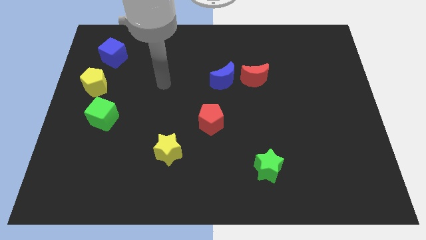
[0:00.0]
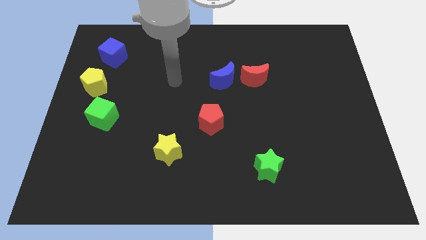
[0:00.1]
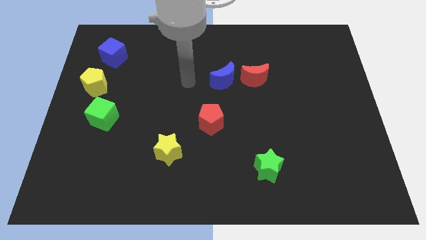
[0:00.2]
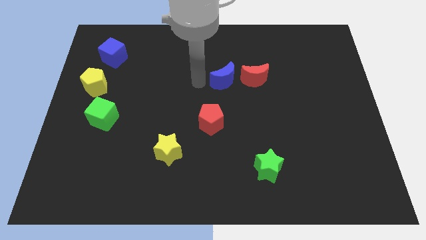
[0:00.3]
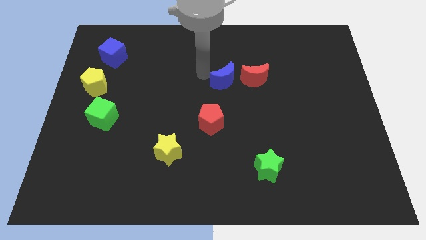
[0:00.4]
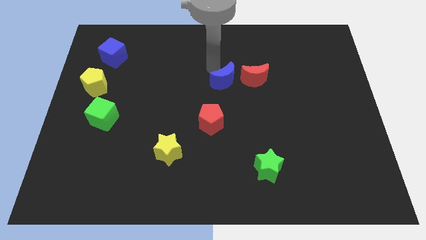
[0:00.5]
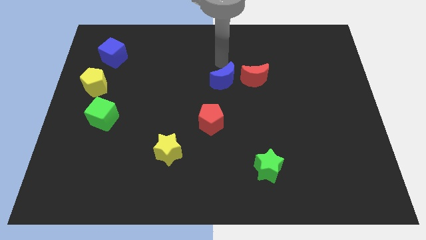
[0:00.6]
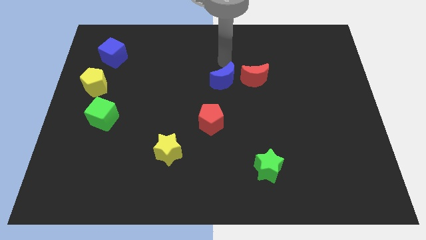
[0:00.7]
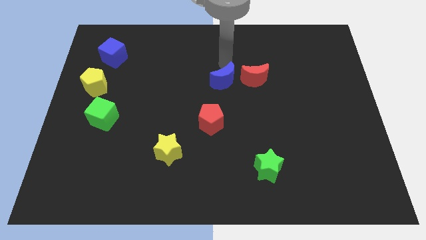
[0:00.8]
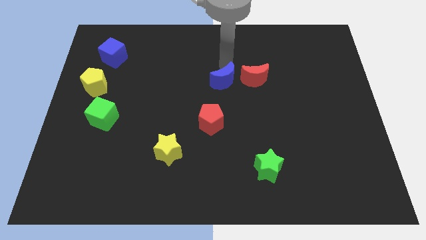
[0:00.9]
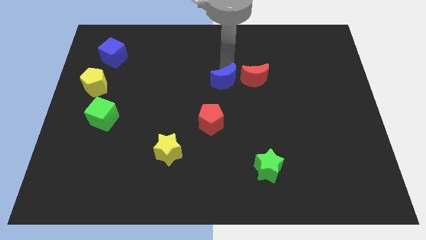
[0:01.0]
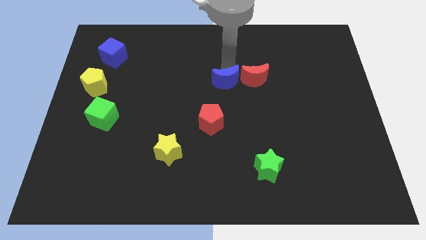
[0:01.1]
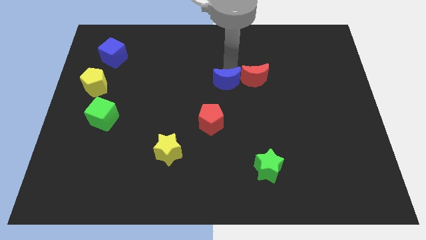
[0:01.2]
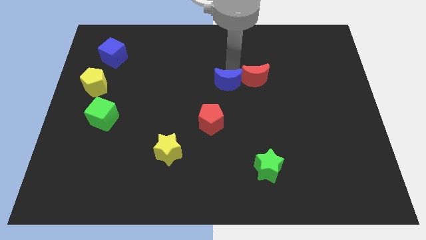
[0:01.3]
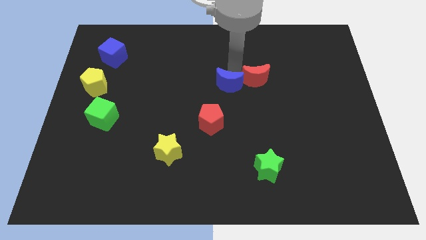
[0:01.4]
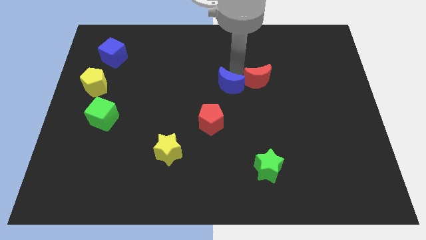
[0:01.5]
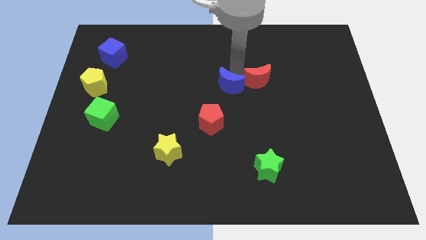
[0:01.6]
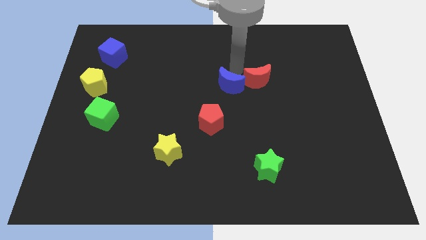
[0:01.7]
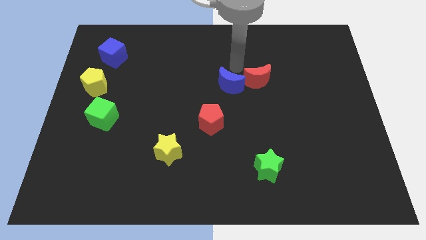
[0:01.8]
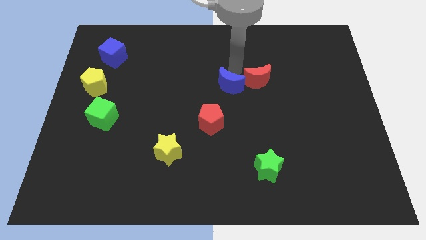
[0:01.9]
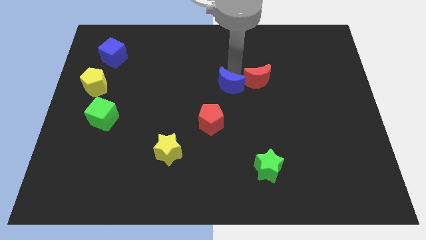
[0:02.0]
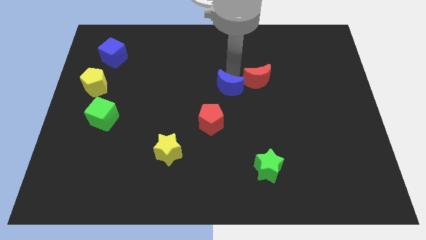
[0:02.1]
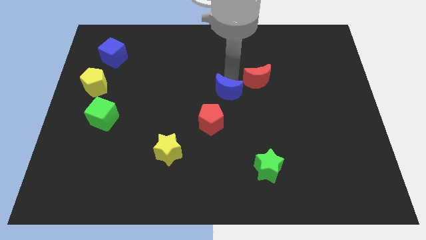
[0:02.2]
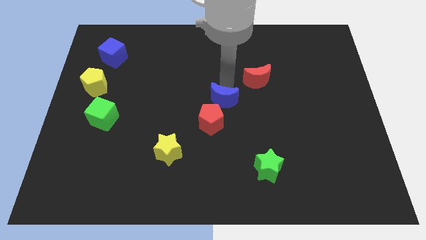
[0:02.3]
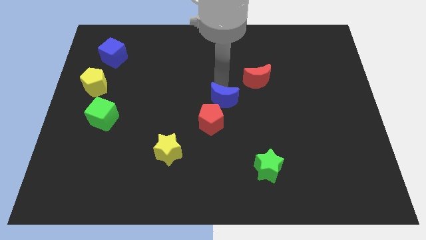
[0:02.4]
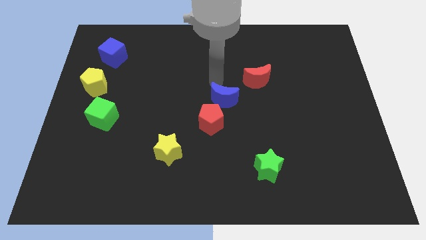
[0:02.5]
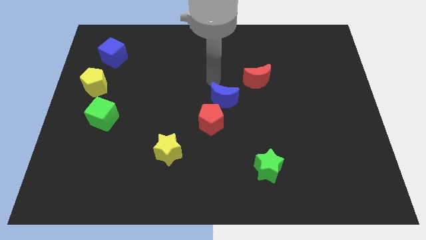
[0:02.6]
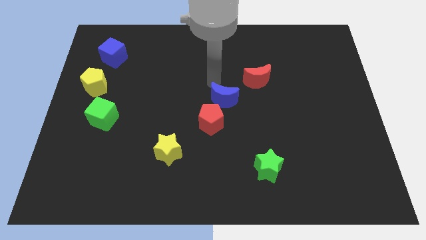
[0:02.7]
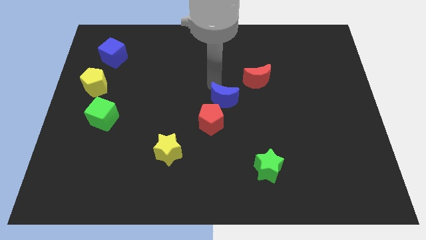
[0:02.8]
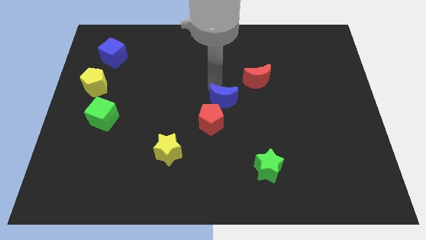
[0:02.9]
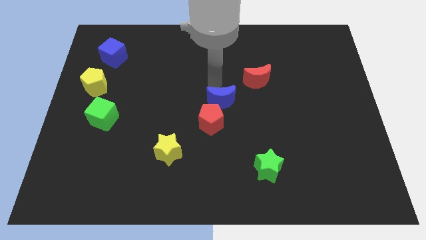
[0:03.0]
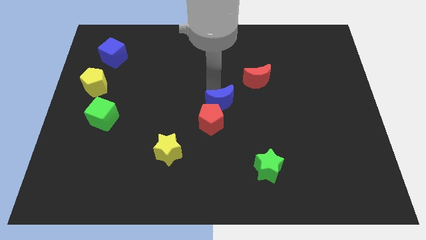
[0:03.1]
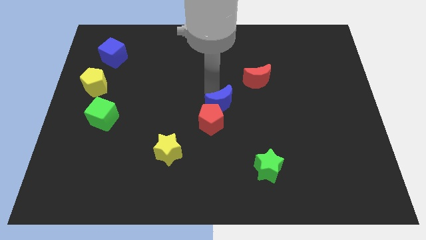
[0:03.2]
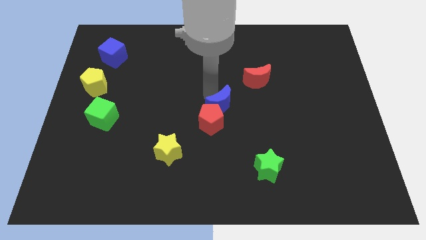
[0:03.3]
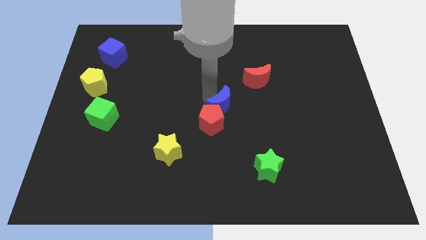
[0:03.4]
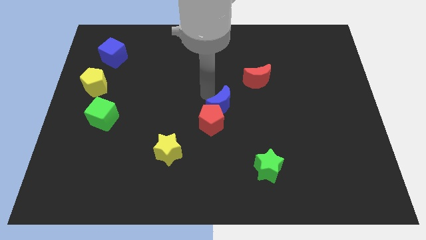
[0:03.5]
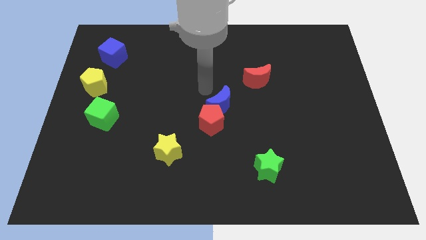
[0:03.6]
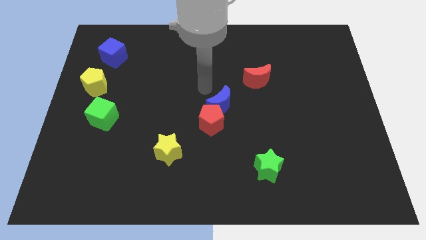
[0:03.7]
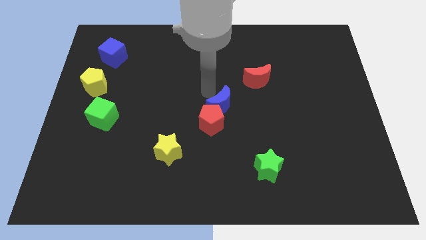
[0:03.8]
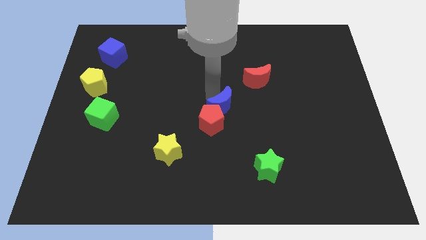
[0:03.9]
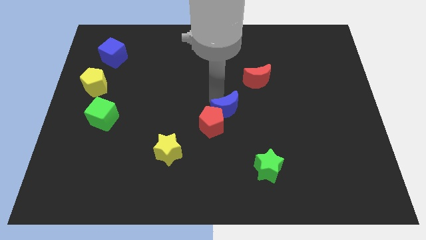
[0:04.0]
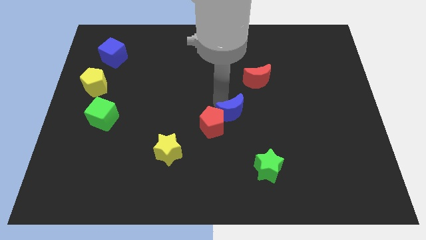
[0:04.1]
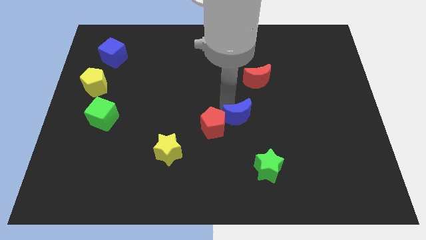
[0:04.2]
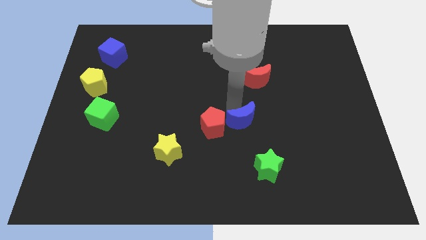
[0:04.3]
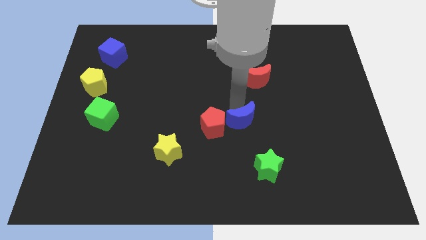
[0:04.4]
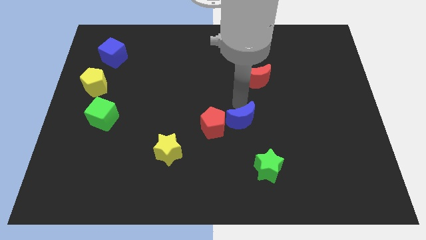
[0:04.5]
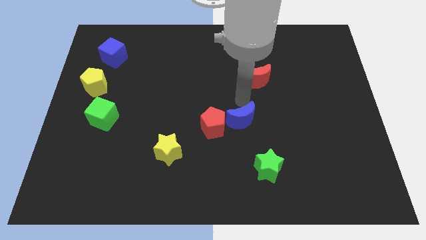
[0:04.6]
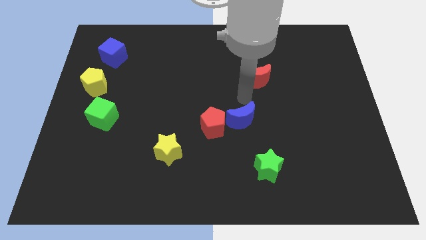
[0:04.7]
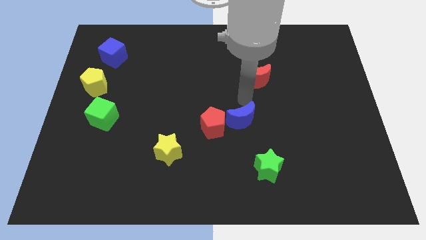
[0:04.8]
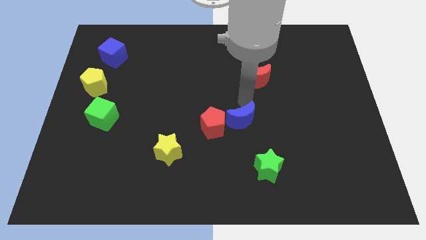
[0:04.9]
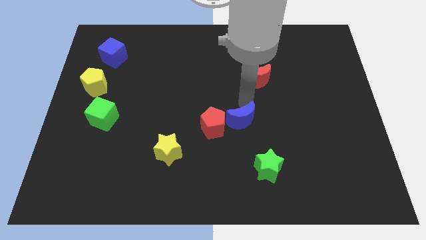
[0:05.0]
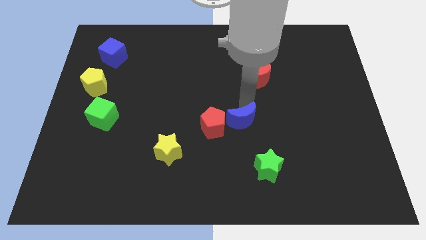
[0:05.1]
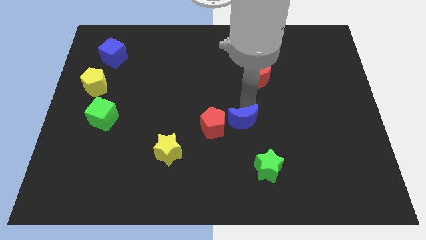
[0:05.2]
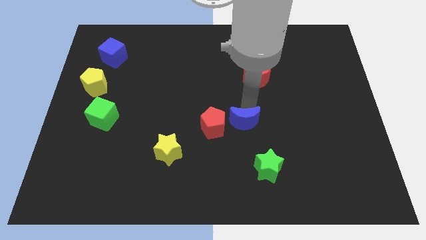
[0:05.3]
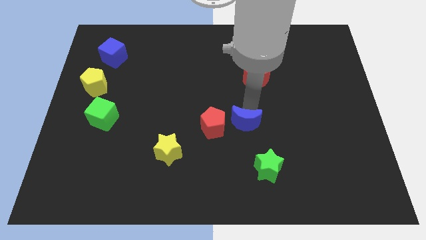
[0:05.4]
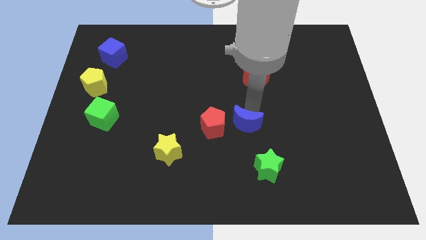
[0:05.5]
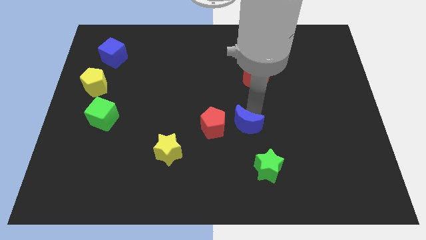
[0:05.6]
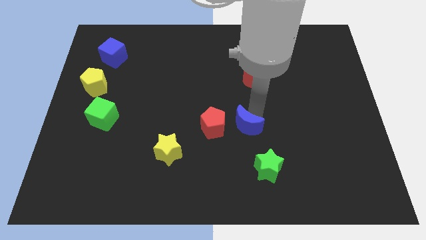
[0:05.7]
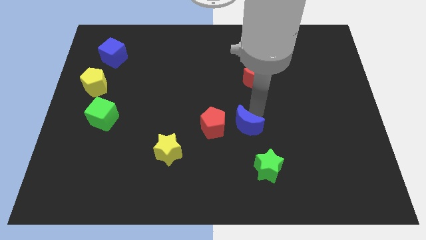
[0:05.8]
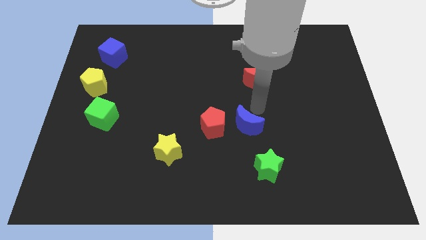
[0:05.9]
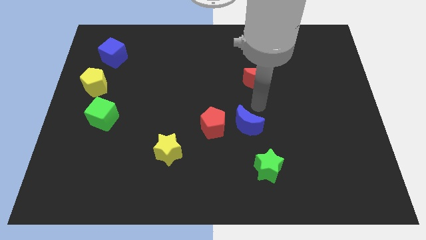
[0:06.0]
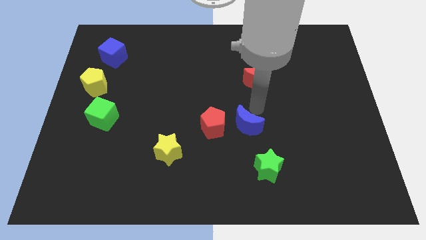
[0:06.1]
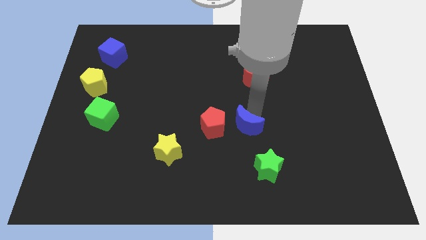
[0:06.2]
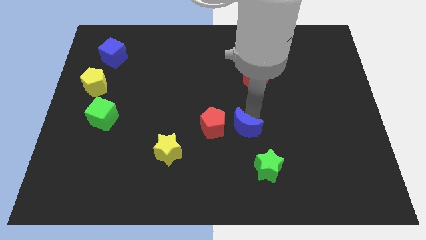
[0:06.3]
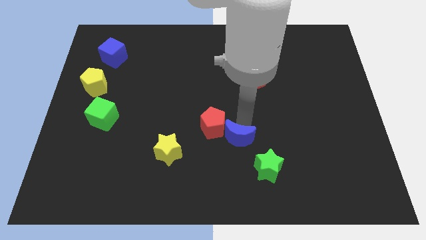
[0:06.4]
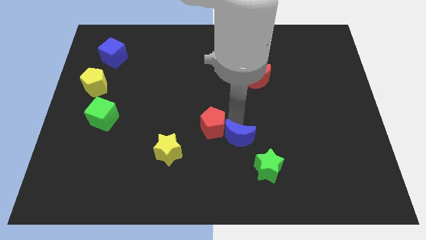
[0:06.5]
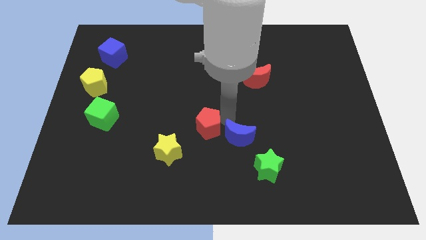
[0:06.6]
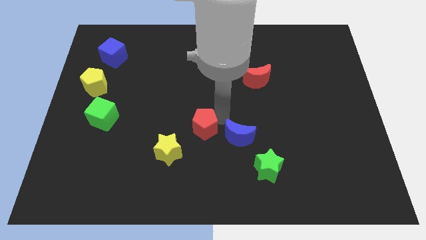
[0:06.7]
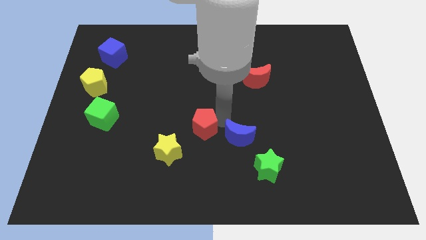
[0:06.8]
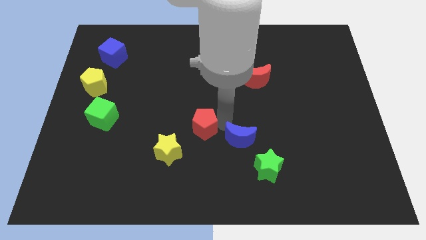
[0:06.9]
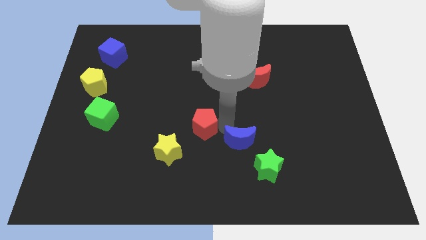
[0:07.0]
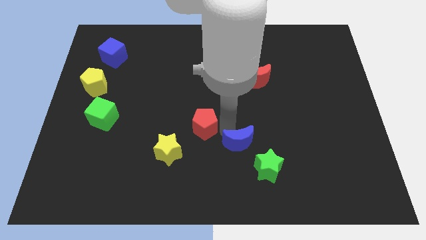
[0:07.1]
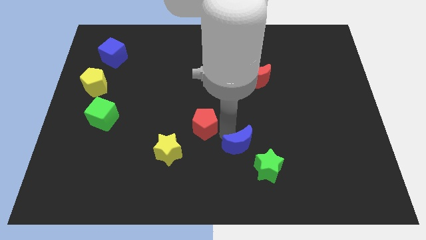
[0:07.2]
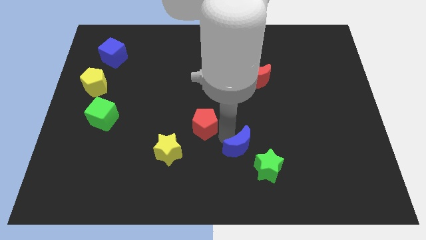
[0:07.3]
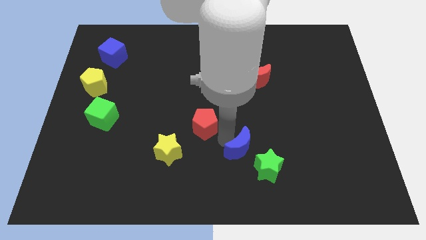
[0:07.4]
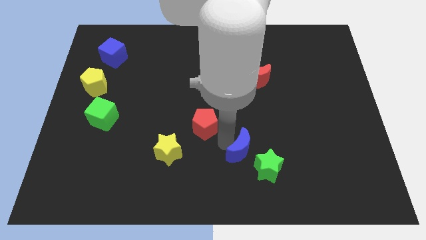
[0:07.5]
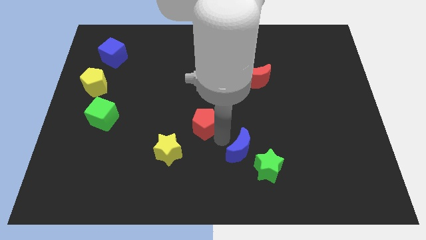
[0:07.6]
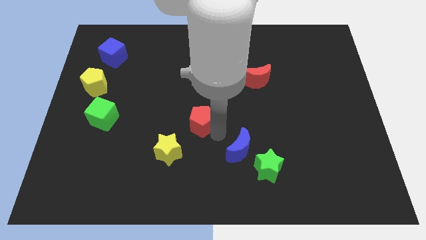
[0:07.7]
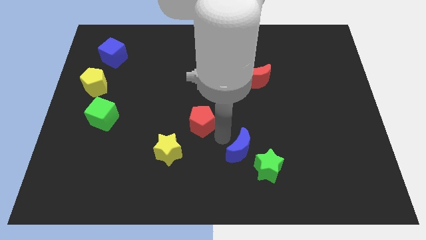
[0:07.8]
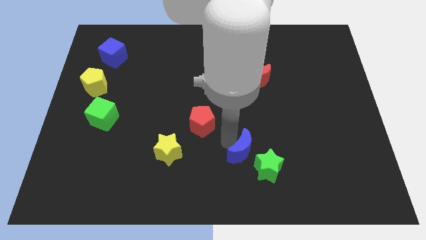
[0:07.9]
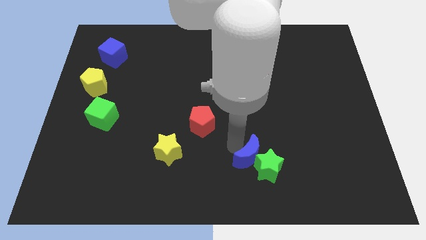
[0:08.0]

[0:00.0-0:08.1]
push the blue moon towards the green star
